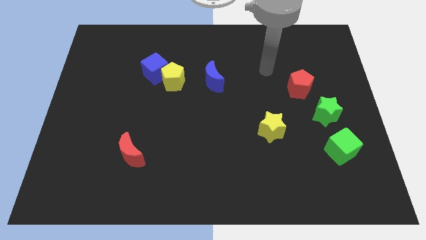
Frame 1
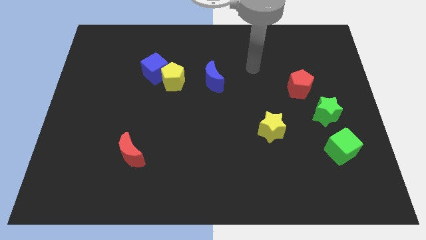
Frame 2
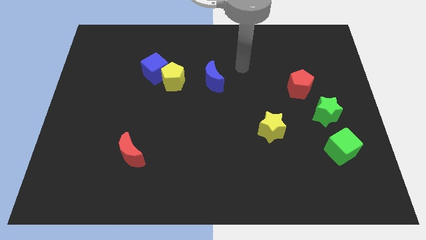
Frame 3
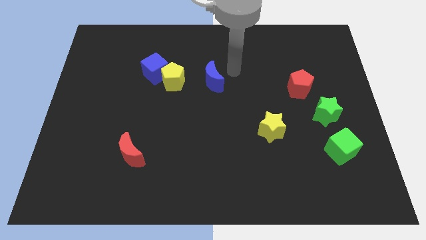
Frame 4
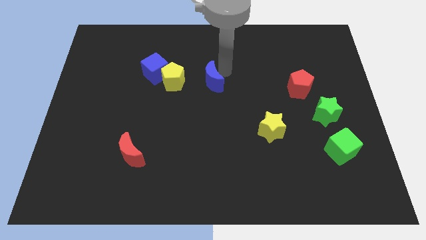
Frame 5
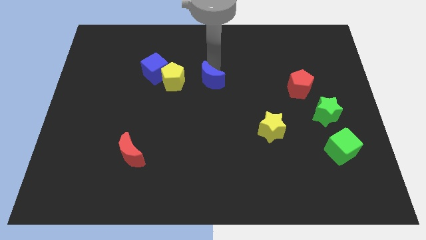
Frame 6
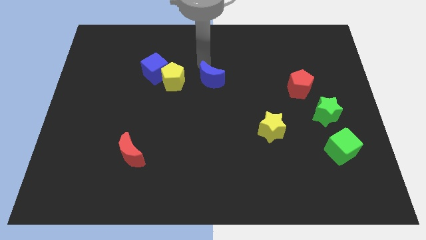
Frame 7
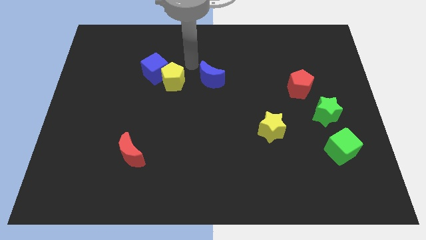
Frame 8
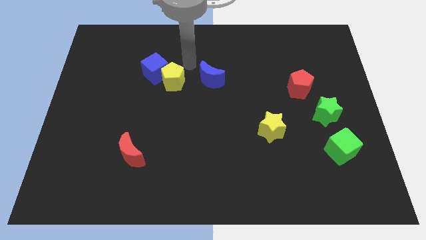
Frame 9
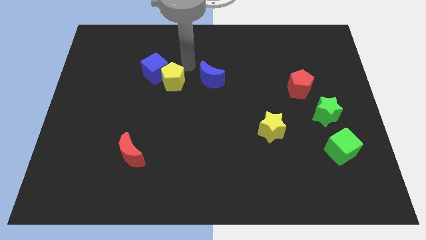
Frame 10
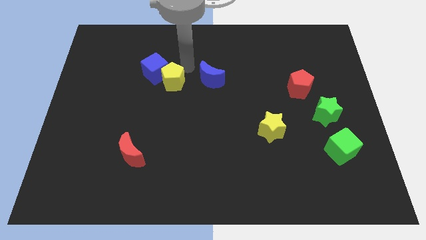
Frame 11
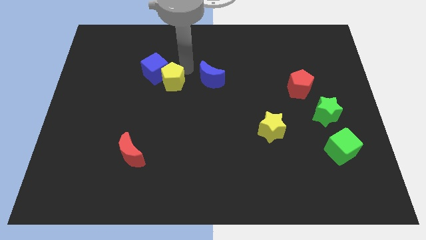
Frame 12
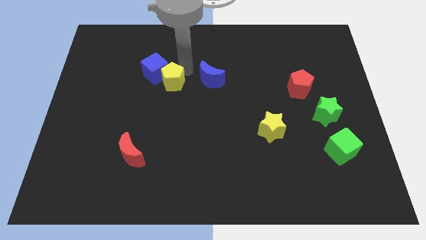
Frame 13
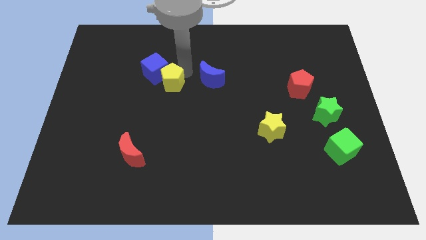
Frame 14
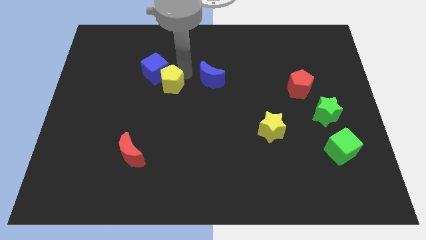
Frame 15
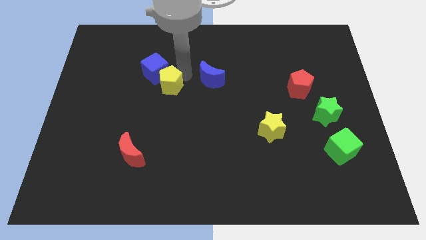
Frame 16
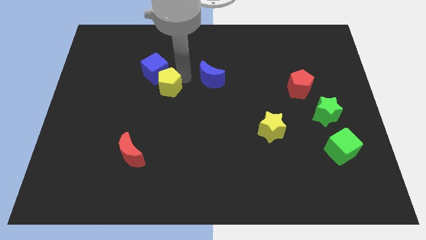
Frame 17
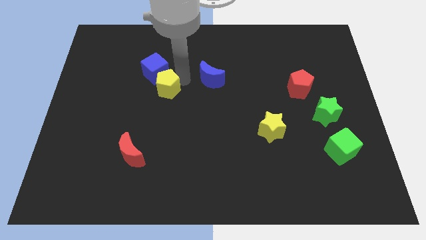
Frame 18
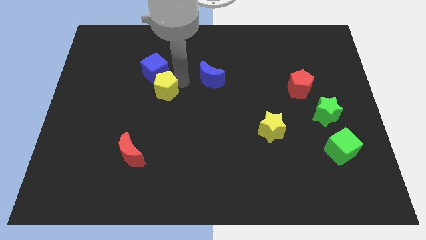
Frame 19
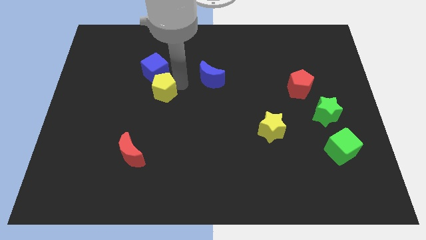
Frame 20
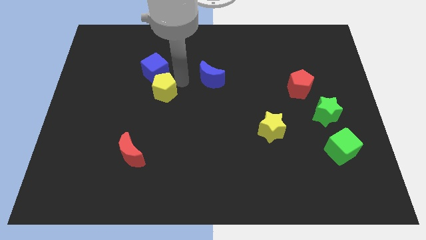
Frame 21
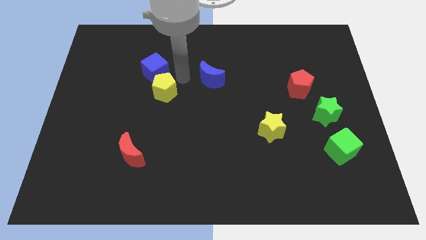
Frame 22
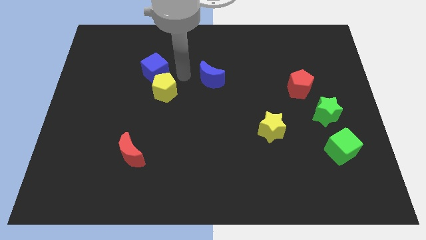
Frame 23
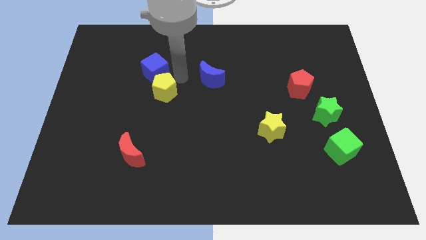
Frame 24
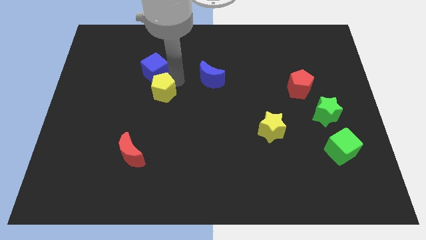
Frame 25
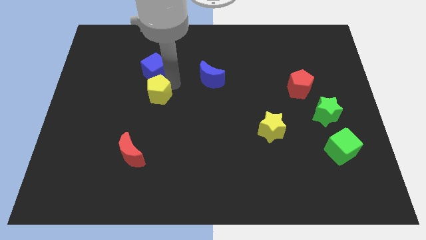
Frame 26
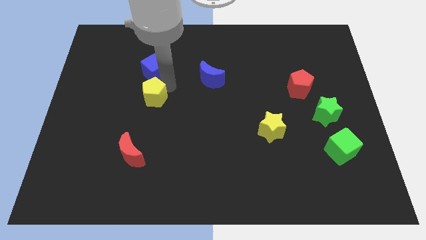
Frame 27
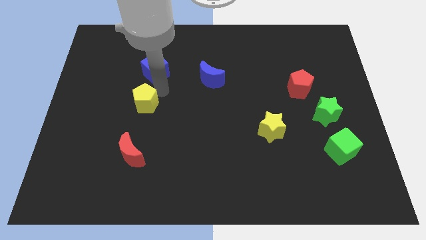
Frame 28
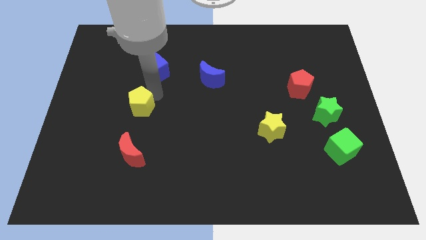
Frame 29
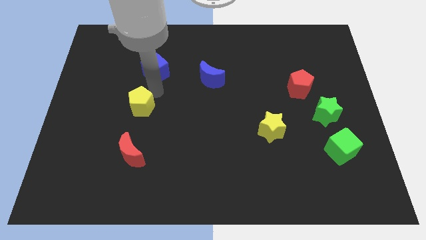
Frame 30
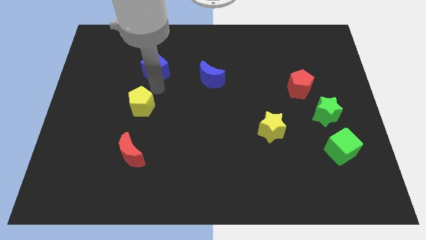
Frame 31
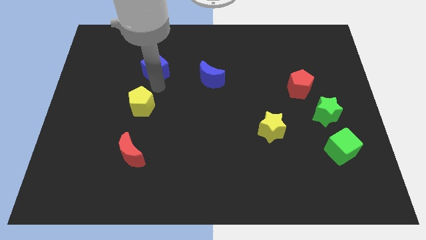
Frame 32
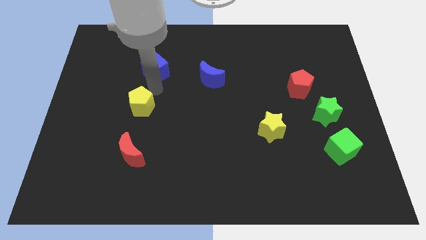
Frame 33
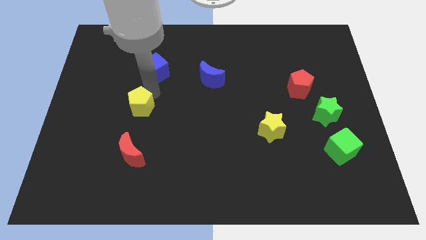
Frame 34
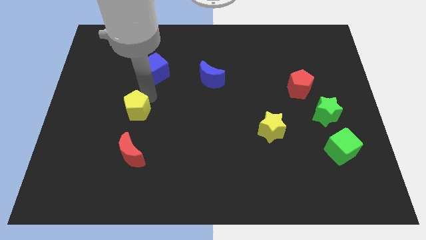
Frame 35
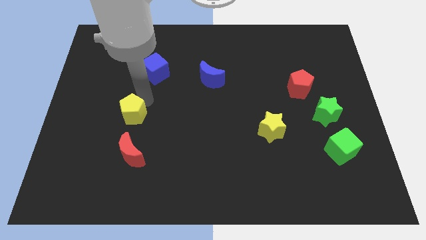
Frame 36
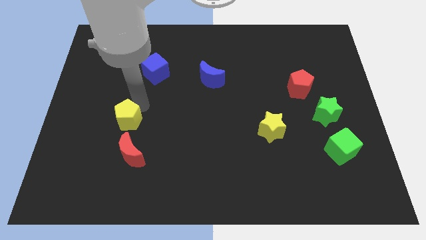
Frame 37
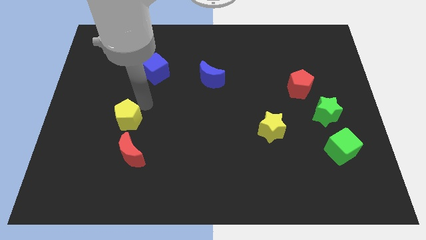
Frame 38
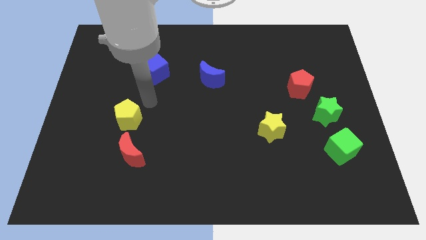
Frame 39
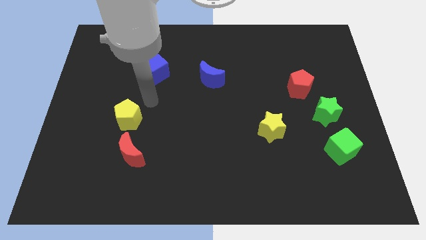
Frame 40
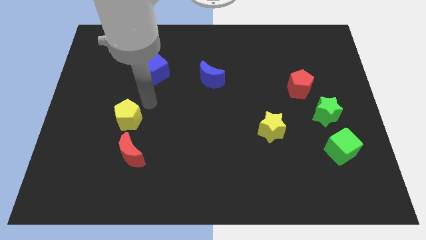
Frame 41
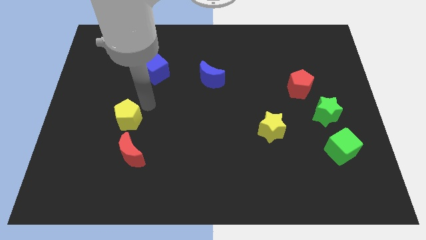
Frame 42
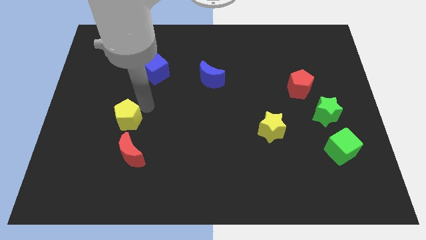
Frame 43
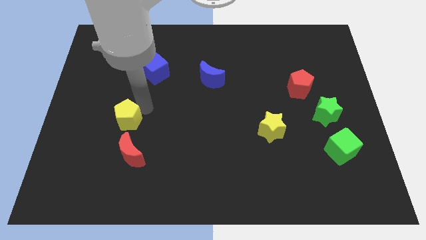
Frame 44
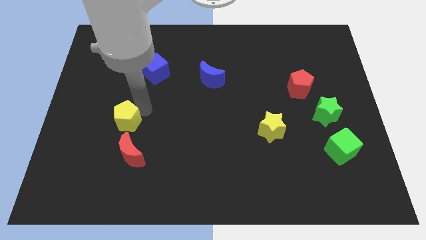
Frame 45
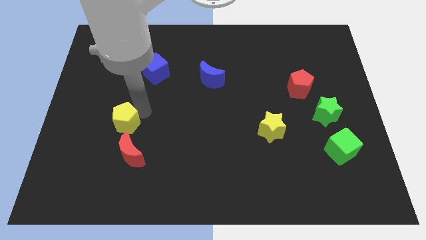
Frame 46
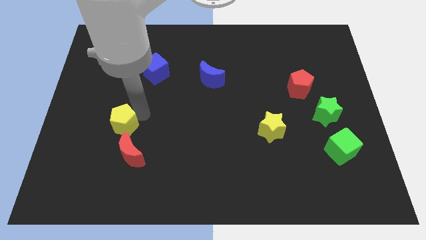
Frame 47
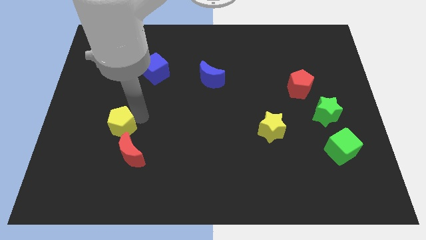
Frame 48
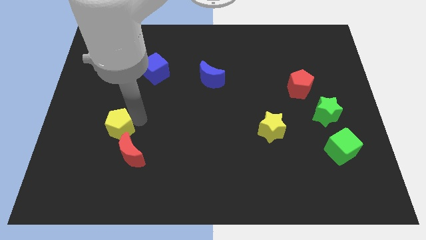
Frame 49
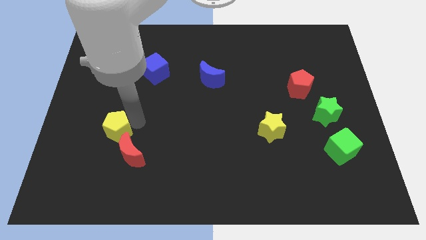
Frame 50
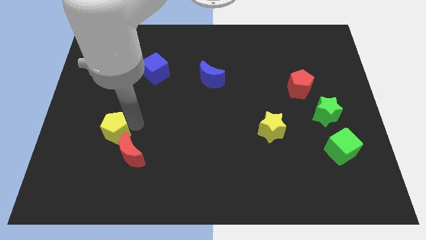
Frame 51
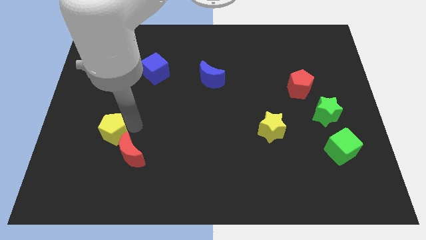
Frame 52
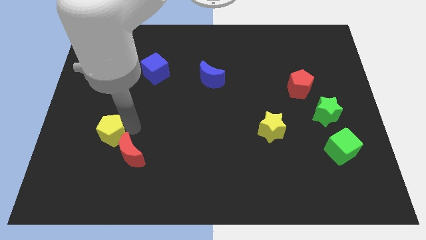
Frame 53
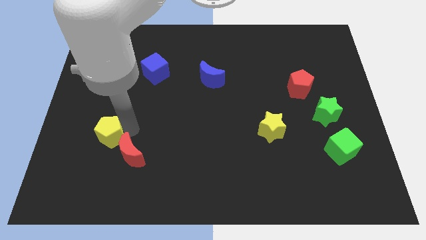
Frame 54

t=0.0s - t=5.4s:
slide the yellow pentagon just left of the red moon

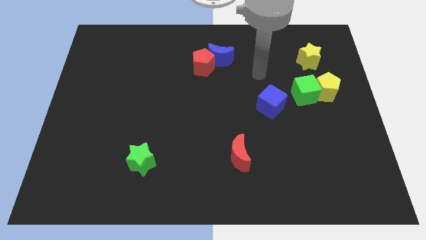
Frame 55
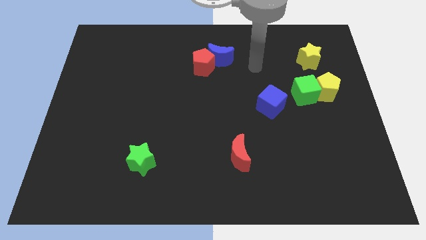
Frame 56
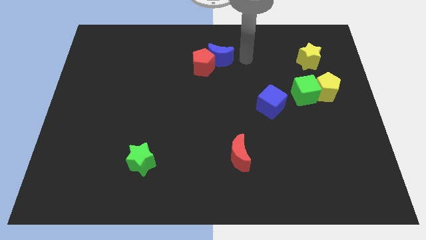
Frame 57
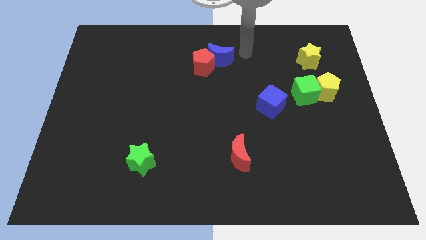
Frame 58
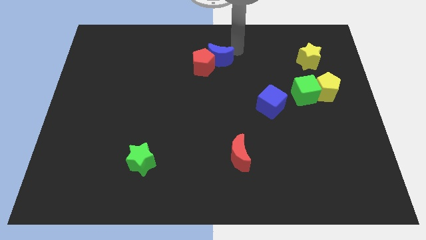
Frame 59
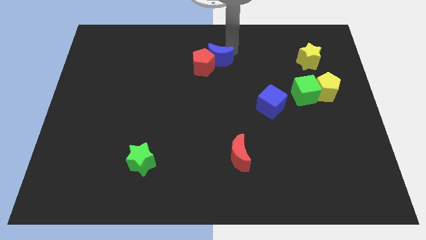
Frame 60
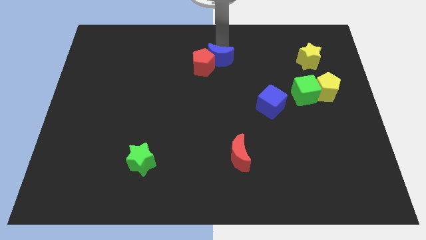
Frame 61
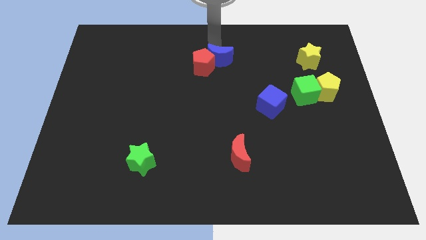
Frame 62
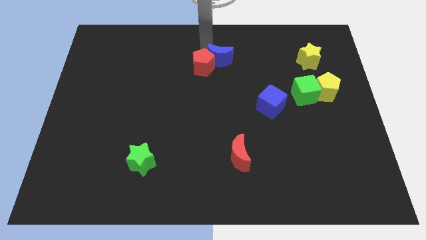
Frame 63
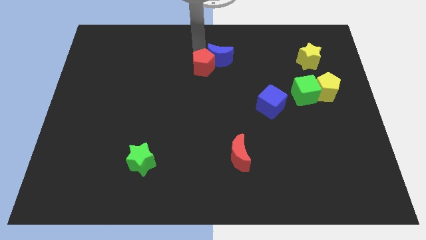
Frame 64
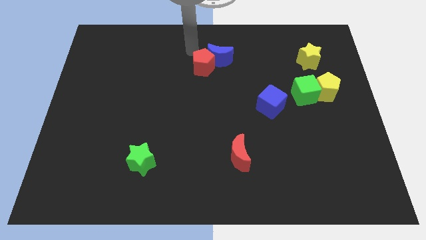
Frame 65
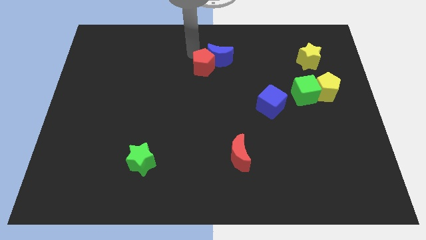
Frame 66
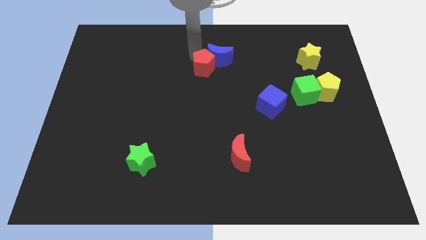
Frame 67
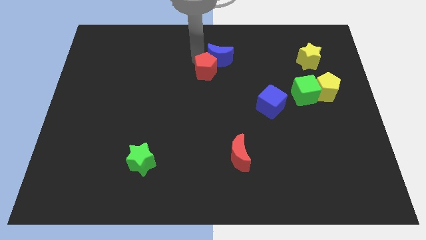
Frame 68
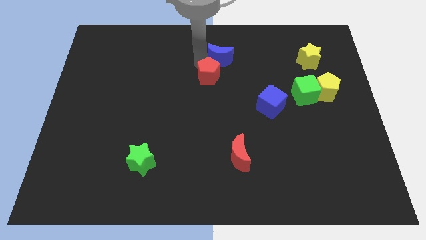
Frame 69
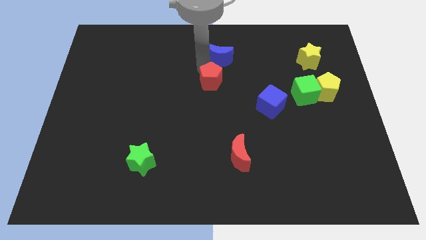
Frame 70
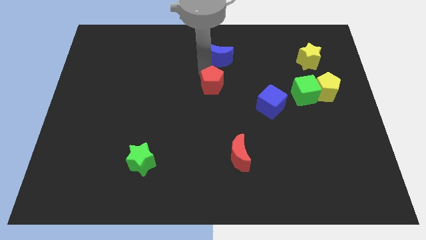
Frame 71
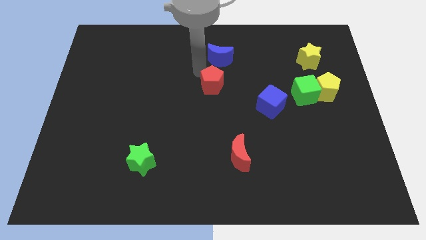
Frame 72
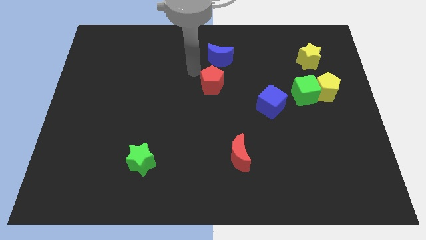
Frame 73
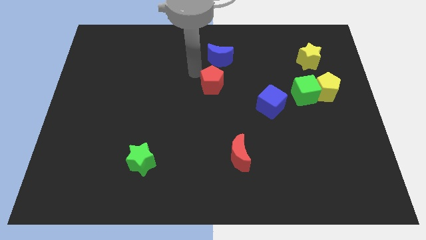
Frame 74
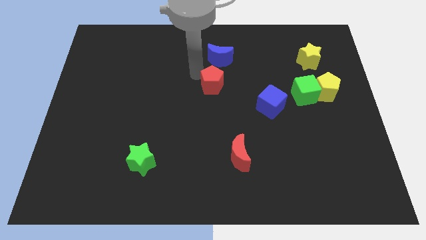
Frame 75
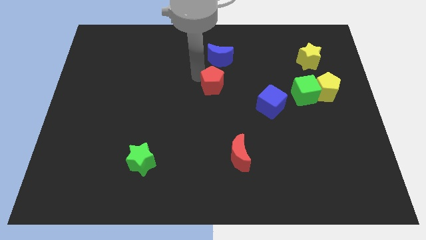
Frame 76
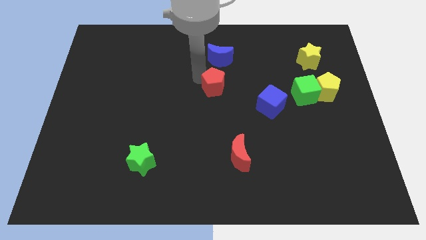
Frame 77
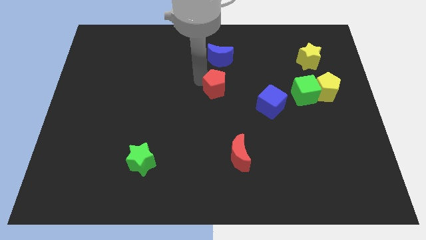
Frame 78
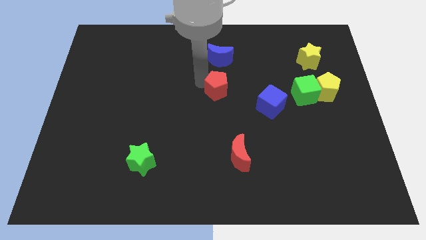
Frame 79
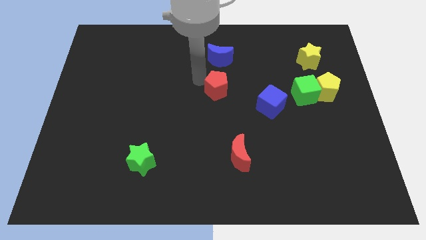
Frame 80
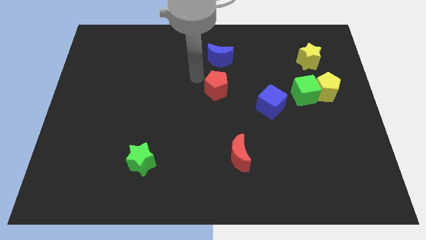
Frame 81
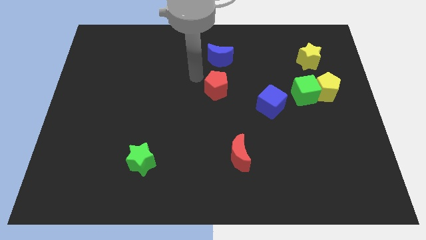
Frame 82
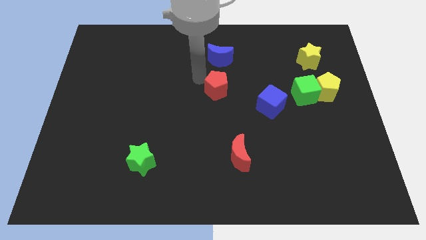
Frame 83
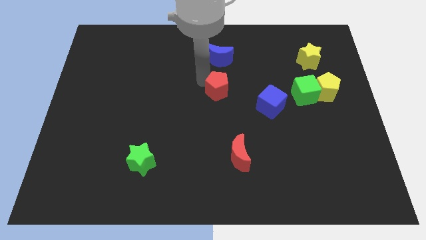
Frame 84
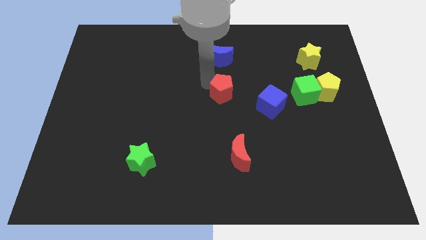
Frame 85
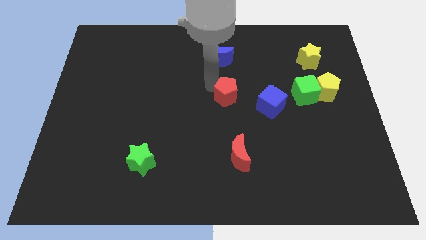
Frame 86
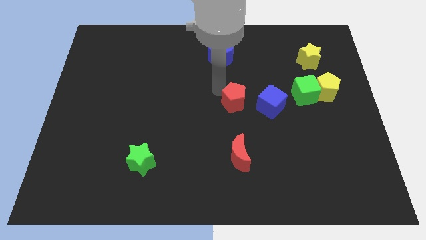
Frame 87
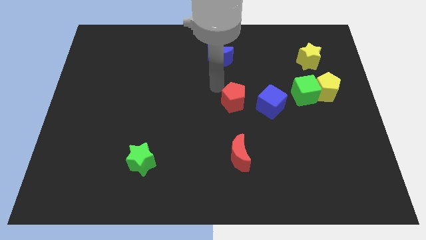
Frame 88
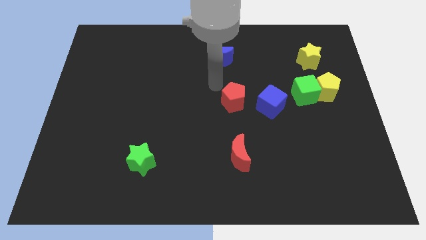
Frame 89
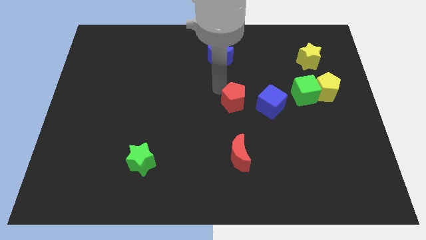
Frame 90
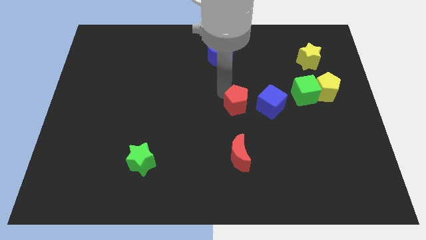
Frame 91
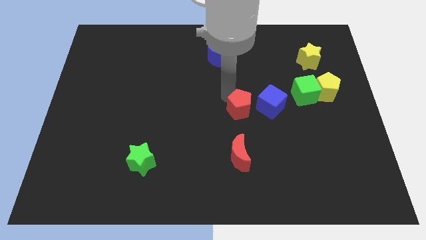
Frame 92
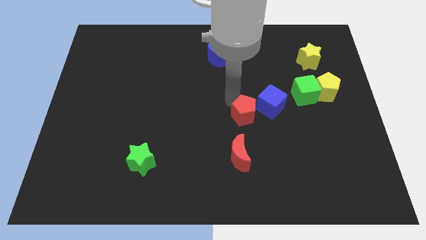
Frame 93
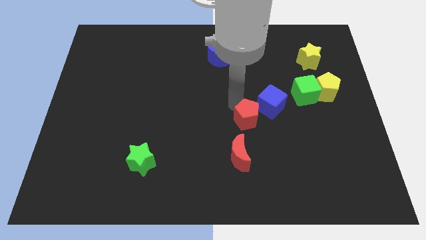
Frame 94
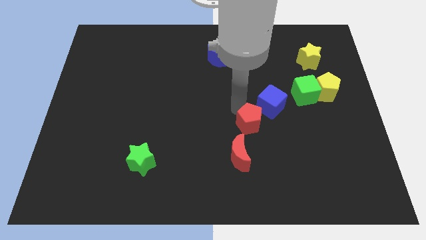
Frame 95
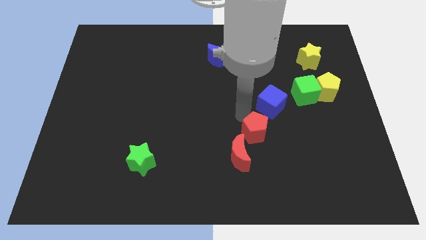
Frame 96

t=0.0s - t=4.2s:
slide the red pentagon to the bottom side of the blue cube
